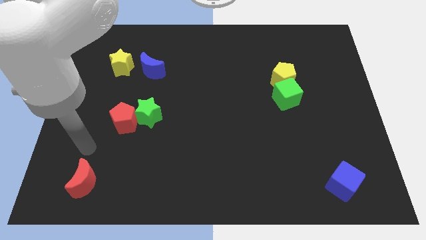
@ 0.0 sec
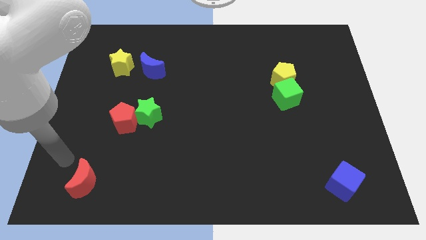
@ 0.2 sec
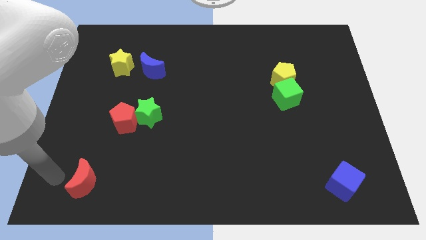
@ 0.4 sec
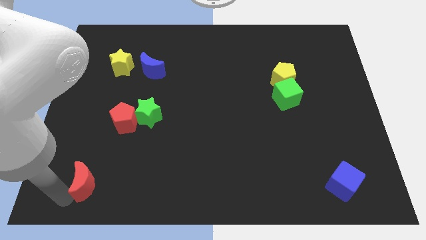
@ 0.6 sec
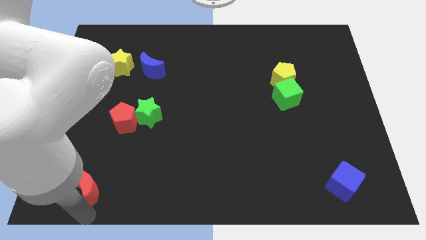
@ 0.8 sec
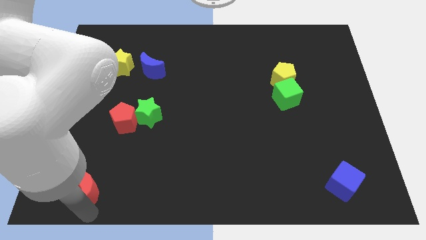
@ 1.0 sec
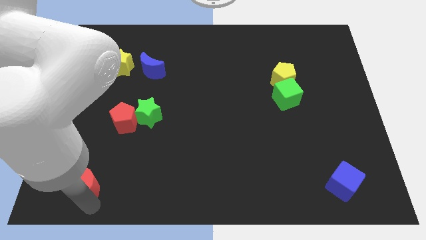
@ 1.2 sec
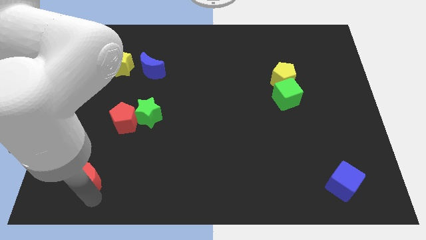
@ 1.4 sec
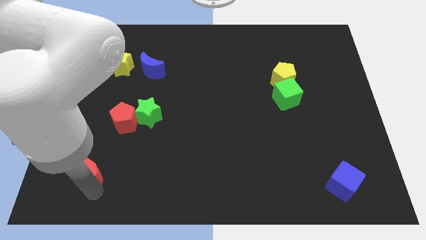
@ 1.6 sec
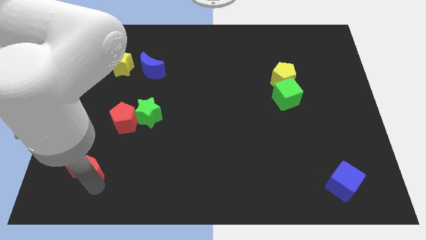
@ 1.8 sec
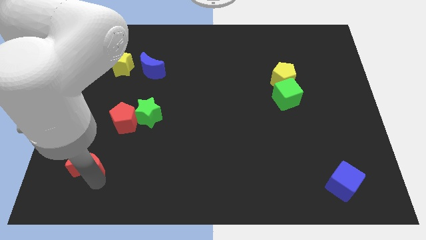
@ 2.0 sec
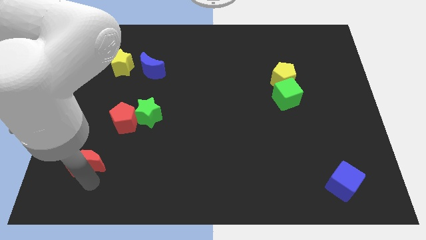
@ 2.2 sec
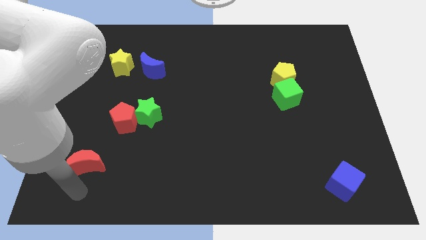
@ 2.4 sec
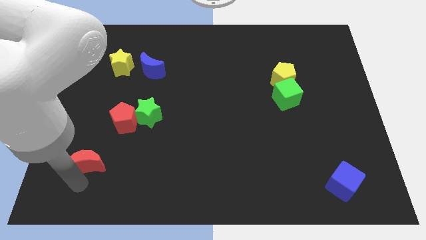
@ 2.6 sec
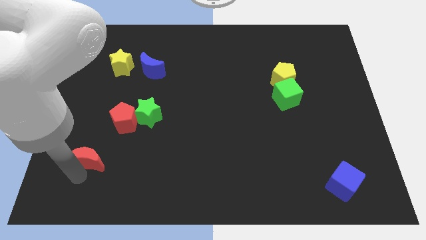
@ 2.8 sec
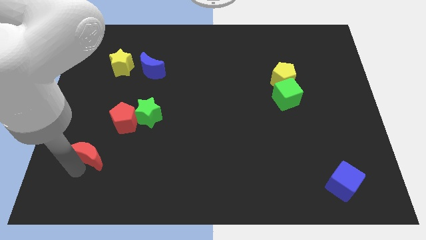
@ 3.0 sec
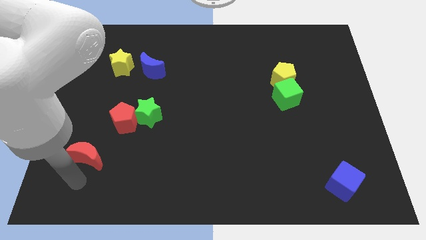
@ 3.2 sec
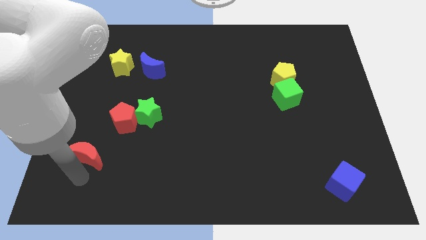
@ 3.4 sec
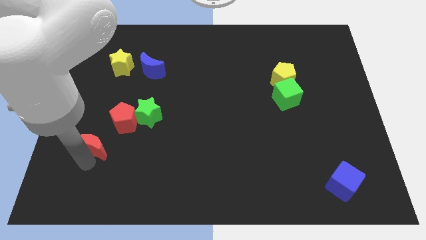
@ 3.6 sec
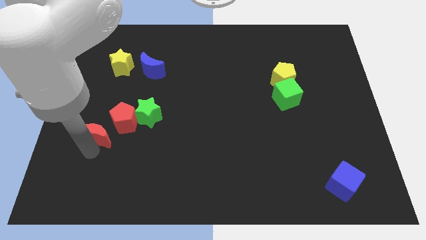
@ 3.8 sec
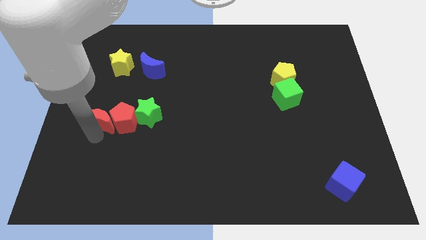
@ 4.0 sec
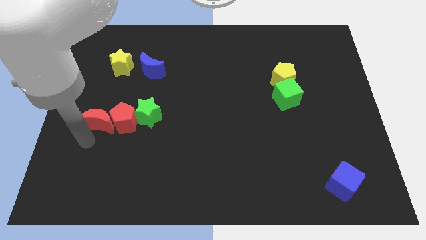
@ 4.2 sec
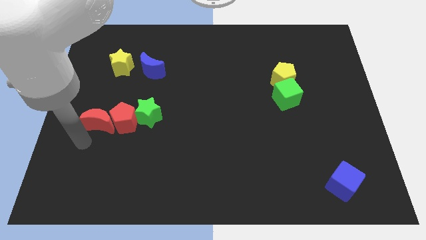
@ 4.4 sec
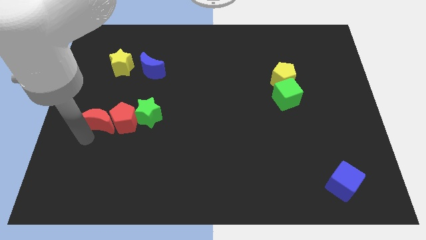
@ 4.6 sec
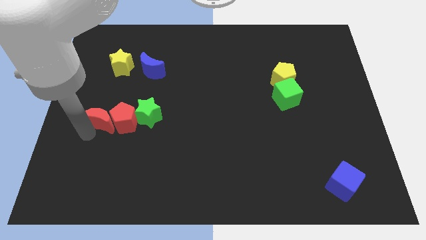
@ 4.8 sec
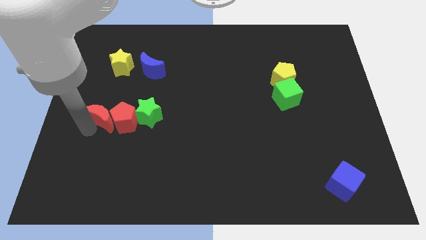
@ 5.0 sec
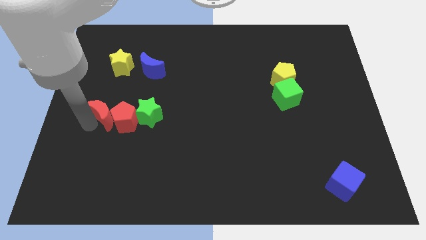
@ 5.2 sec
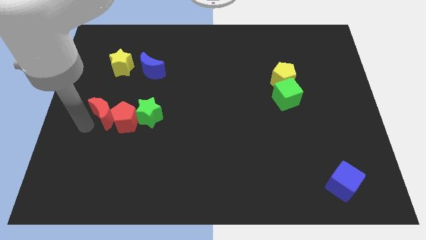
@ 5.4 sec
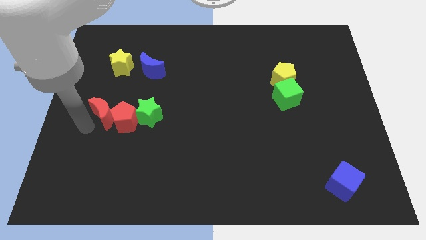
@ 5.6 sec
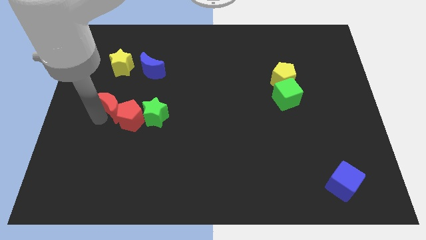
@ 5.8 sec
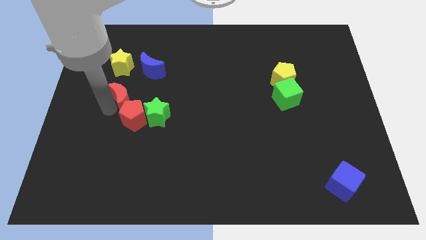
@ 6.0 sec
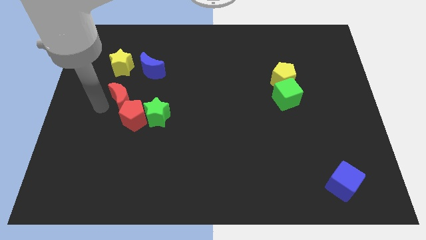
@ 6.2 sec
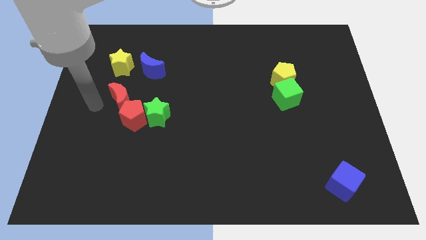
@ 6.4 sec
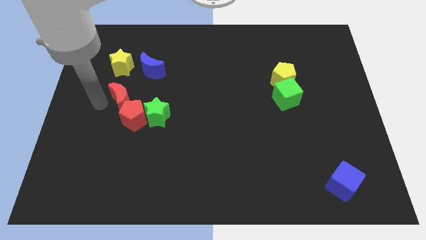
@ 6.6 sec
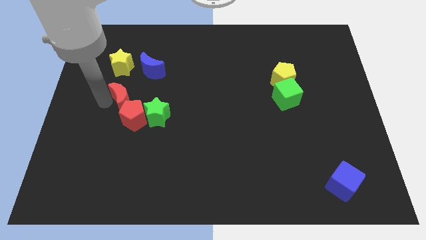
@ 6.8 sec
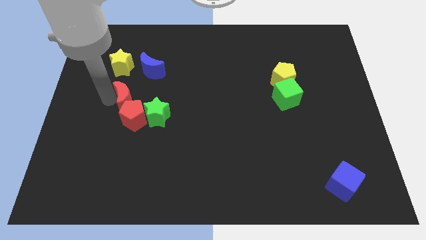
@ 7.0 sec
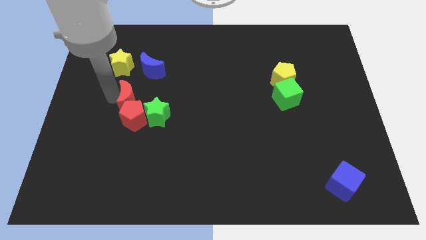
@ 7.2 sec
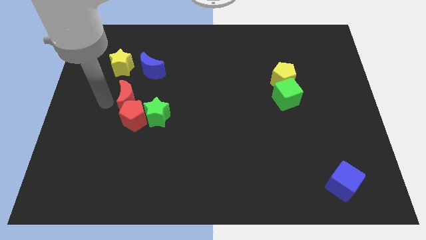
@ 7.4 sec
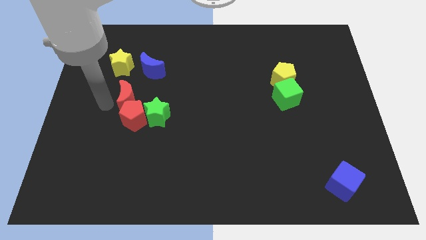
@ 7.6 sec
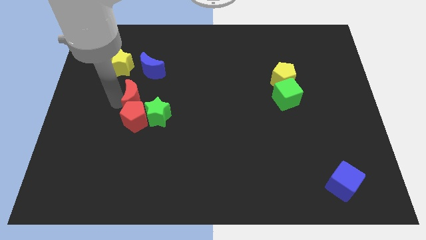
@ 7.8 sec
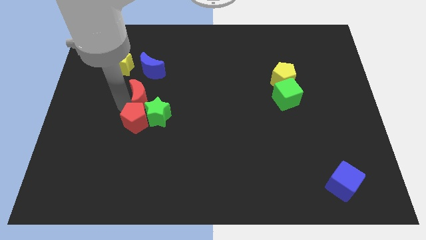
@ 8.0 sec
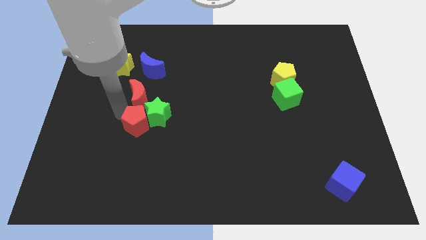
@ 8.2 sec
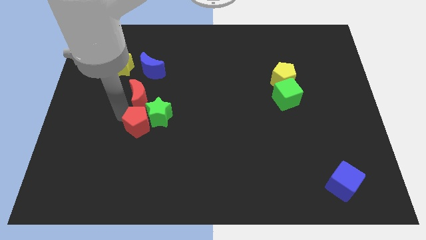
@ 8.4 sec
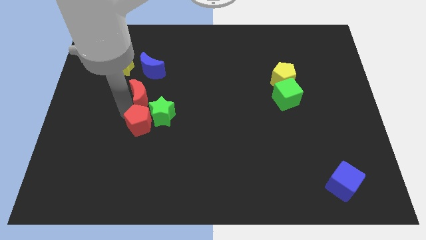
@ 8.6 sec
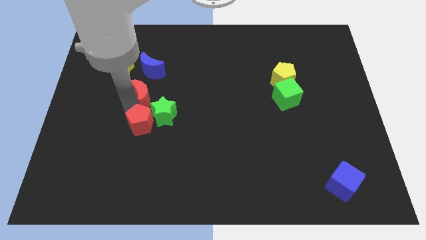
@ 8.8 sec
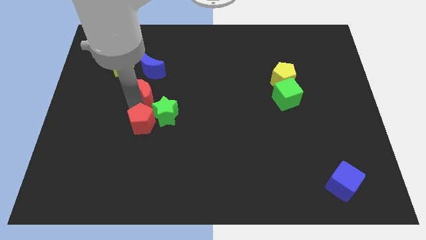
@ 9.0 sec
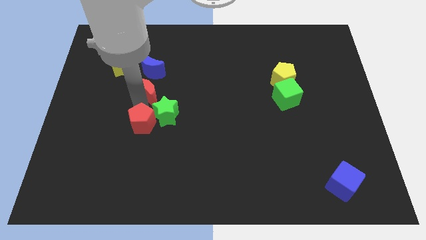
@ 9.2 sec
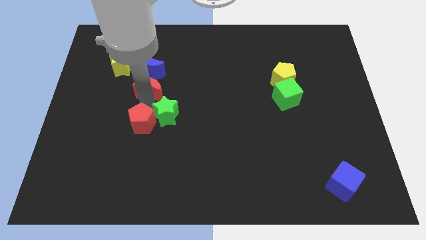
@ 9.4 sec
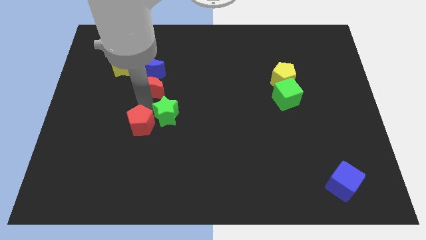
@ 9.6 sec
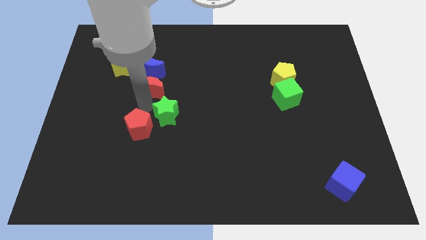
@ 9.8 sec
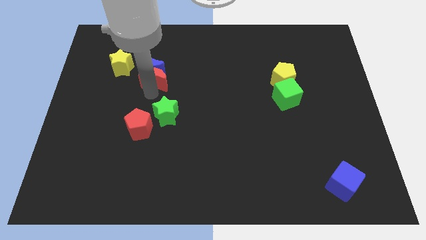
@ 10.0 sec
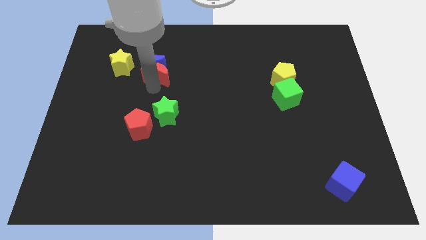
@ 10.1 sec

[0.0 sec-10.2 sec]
move the red moon to the right side of the yellow star

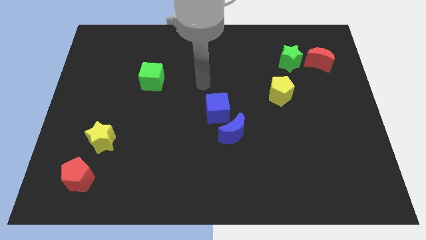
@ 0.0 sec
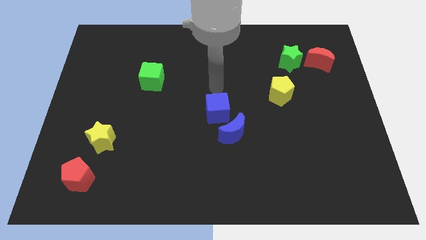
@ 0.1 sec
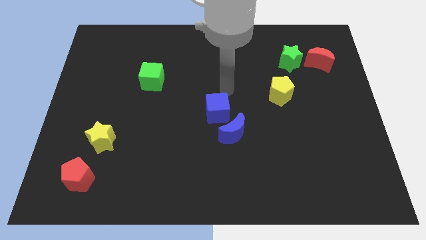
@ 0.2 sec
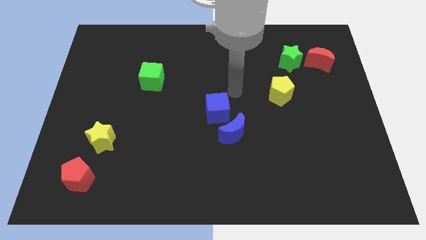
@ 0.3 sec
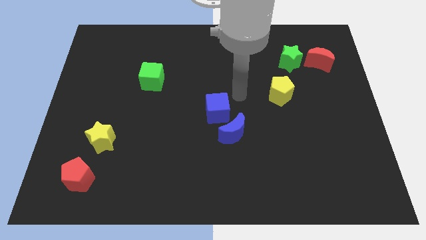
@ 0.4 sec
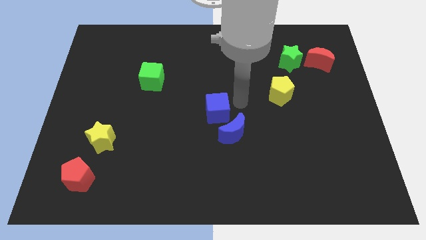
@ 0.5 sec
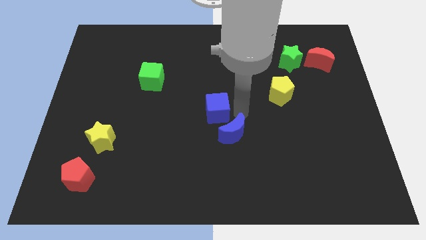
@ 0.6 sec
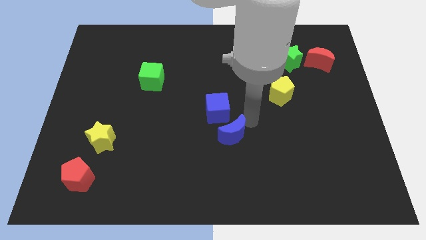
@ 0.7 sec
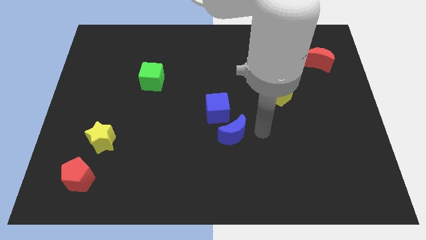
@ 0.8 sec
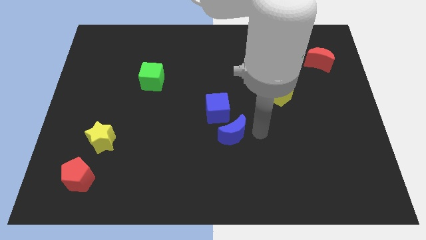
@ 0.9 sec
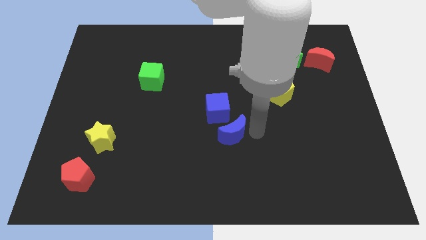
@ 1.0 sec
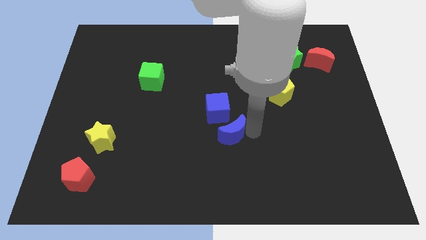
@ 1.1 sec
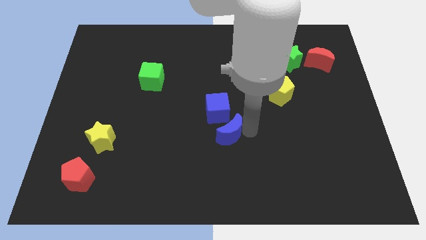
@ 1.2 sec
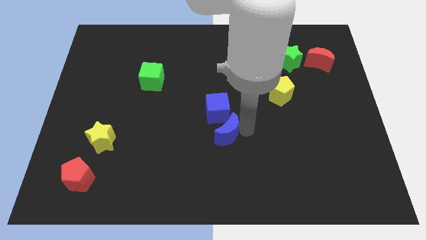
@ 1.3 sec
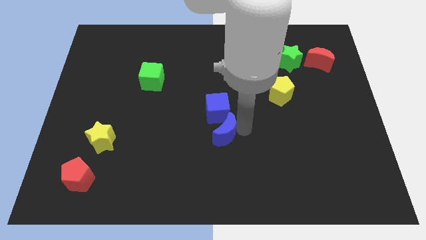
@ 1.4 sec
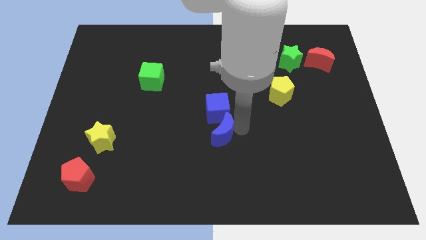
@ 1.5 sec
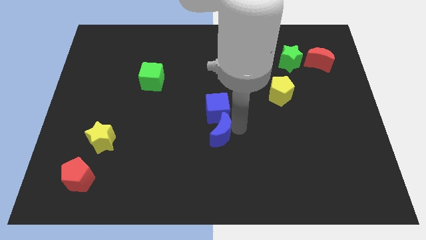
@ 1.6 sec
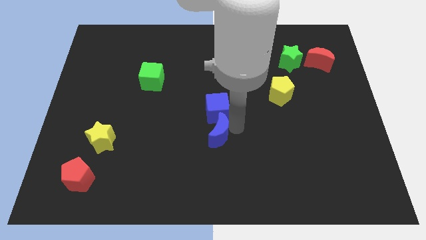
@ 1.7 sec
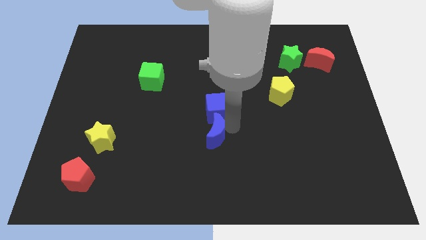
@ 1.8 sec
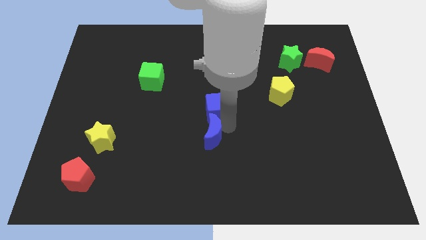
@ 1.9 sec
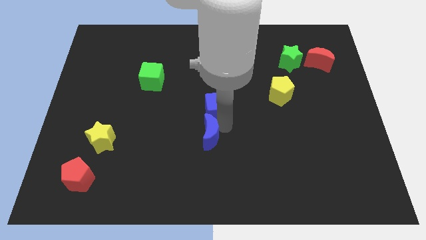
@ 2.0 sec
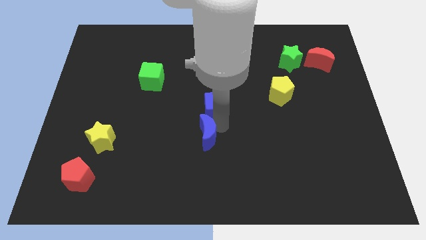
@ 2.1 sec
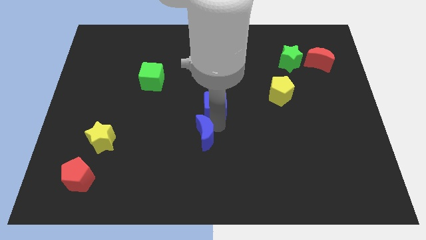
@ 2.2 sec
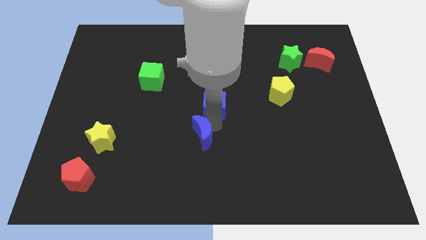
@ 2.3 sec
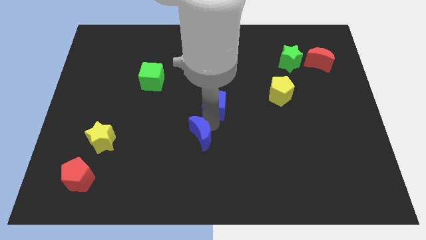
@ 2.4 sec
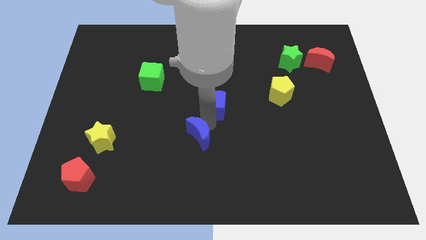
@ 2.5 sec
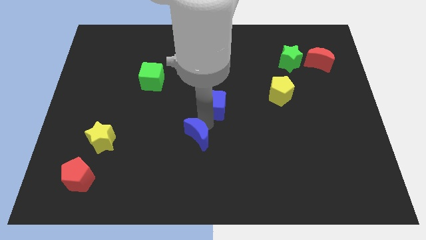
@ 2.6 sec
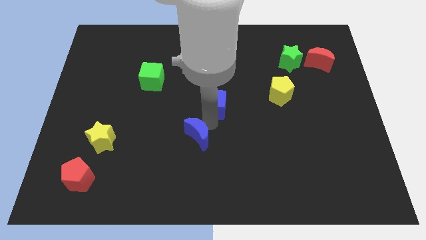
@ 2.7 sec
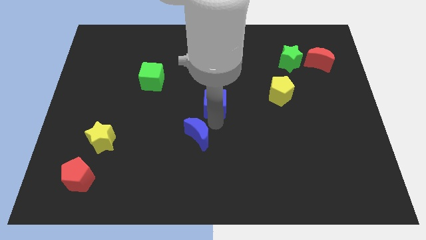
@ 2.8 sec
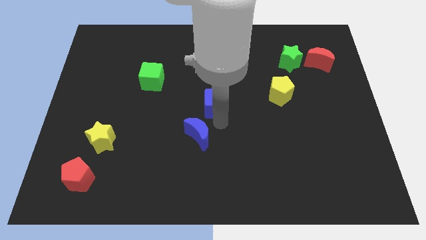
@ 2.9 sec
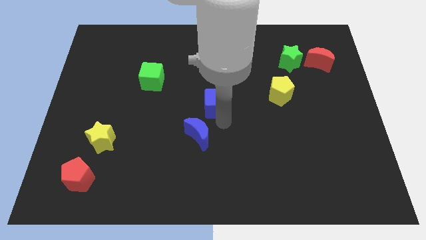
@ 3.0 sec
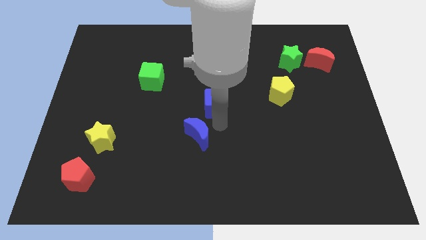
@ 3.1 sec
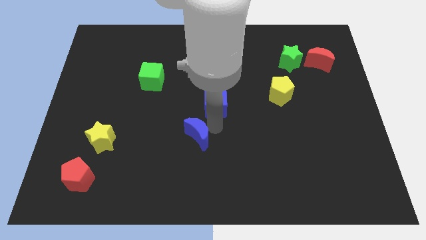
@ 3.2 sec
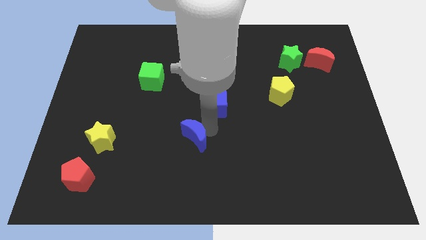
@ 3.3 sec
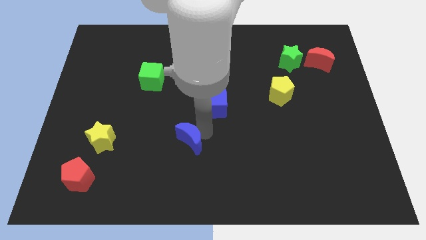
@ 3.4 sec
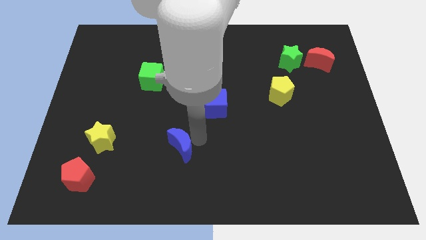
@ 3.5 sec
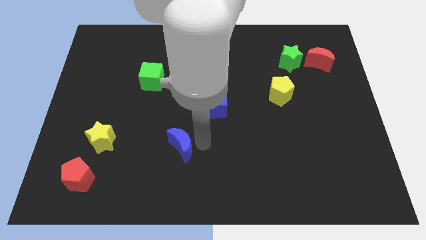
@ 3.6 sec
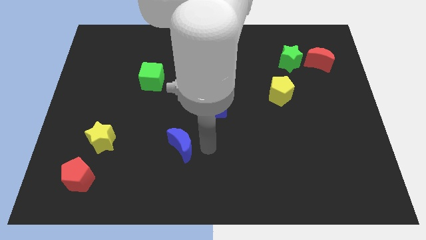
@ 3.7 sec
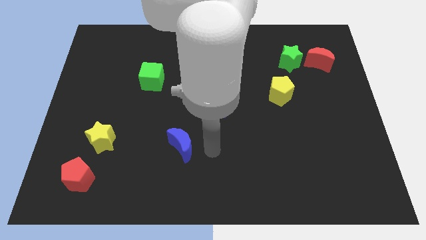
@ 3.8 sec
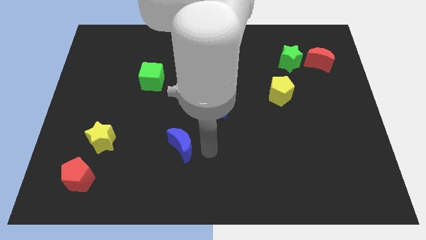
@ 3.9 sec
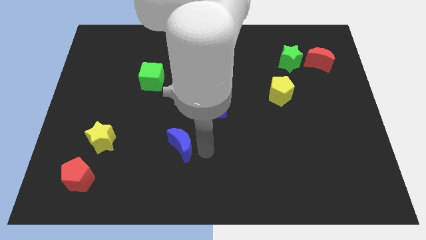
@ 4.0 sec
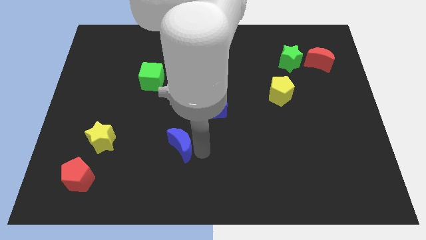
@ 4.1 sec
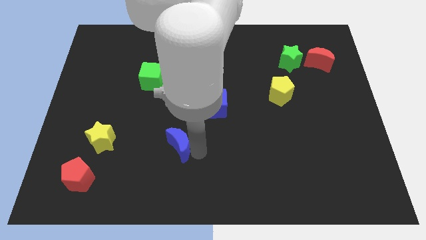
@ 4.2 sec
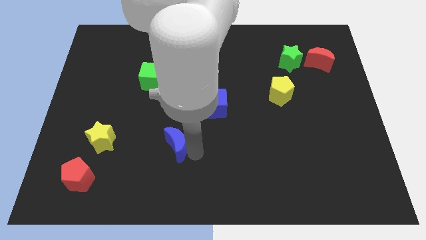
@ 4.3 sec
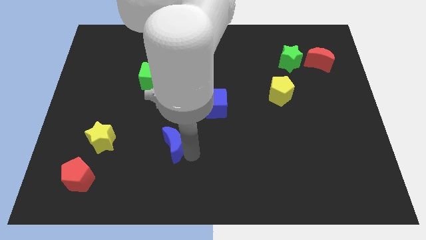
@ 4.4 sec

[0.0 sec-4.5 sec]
move the blue moon just right of the yellow star
